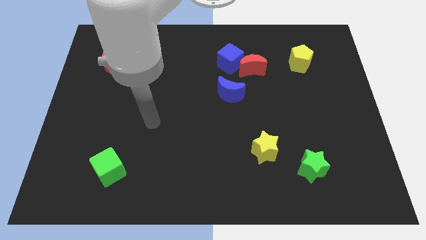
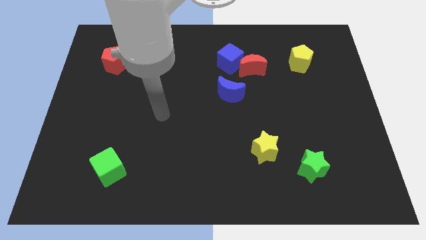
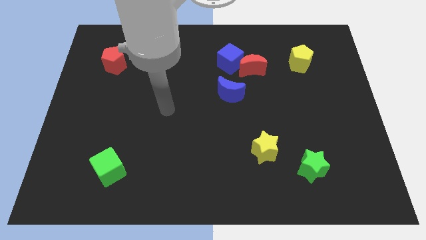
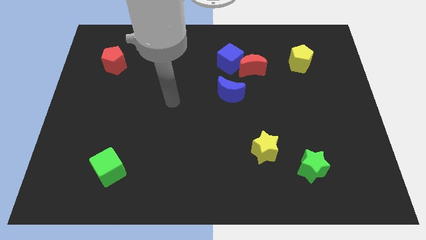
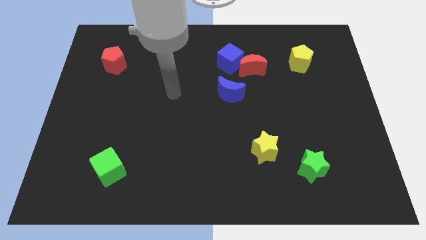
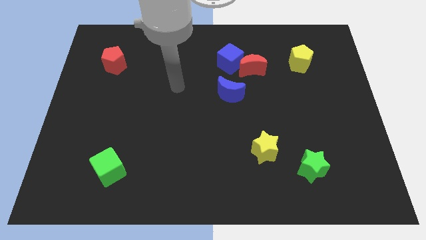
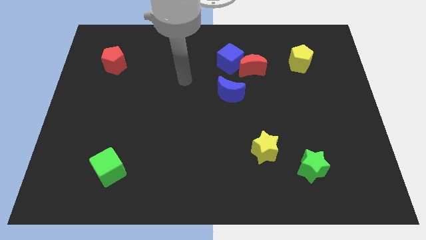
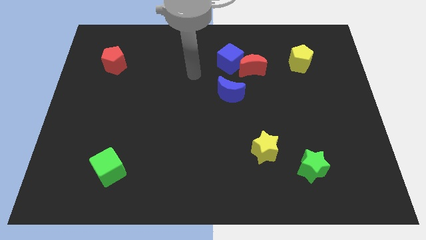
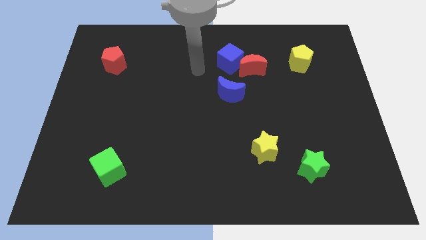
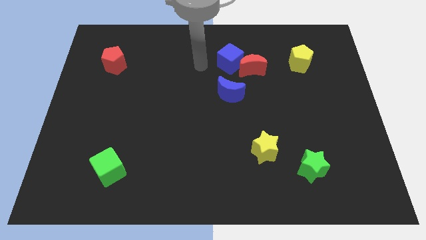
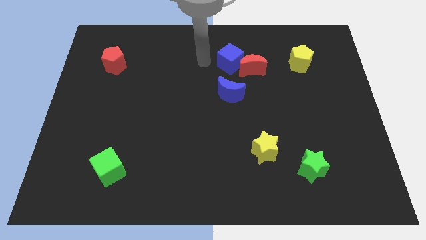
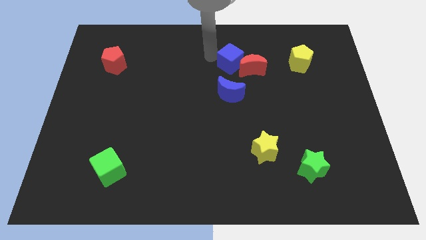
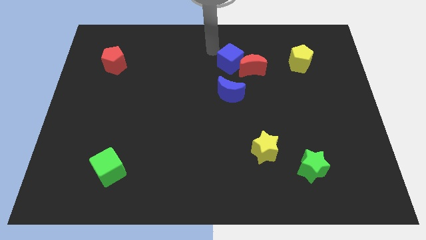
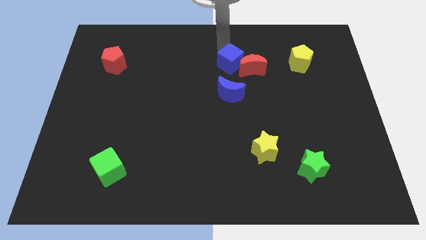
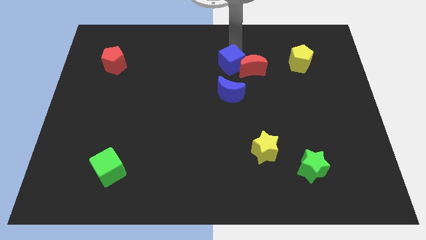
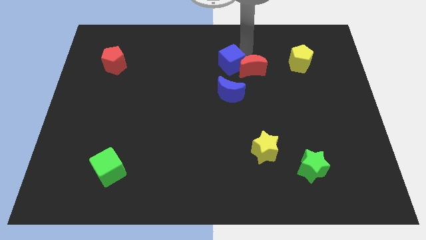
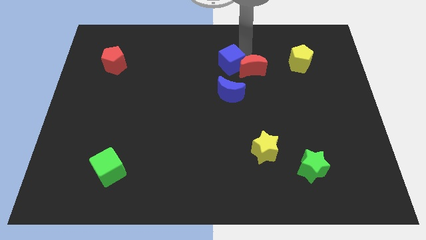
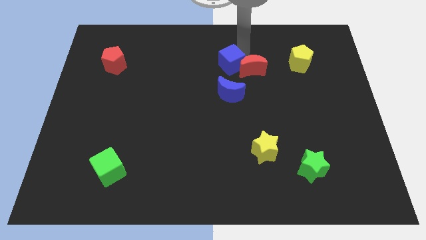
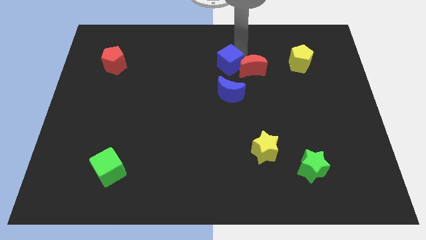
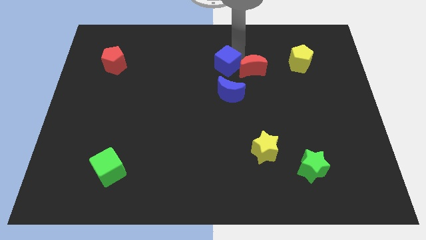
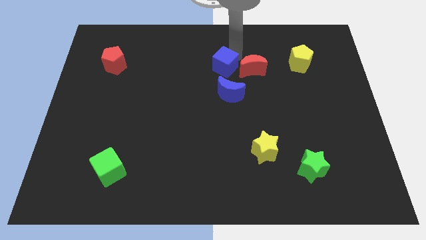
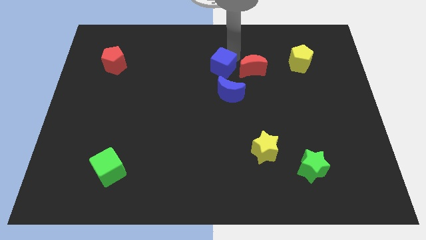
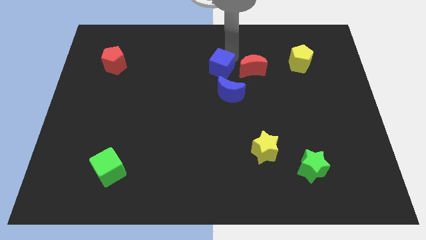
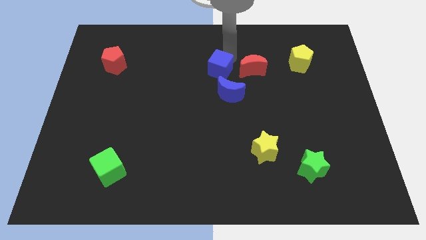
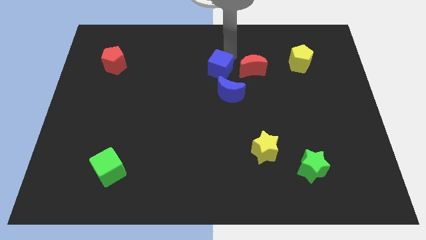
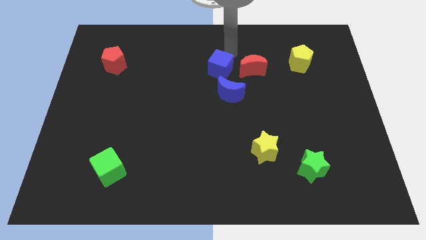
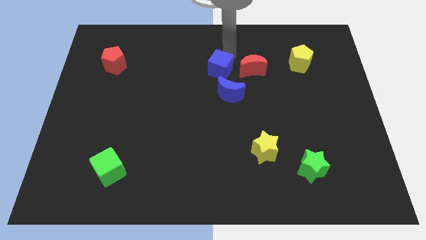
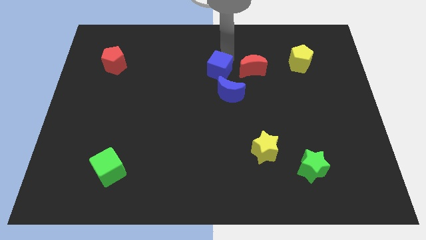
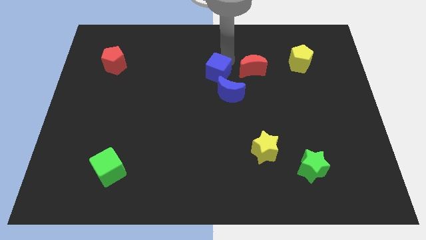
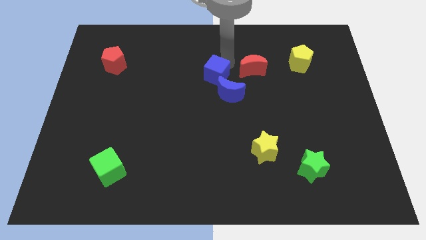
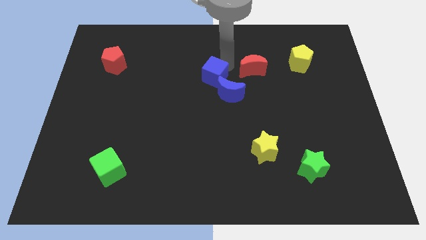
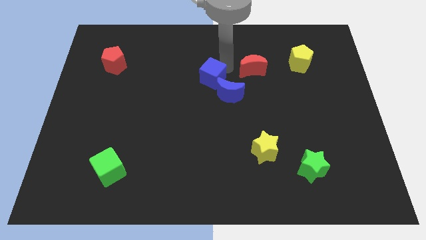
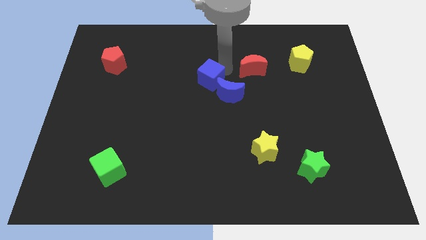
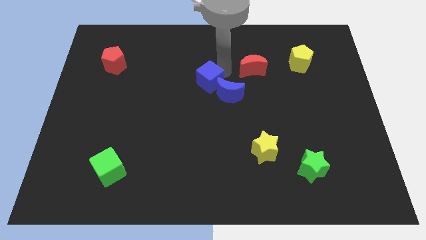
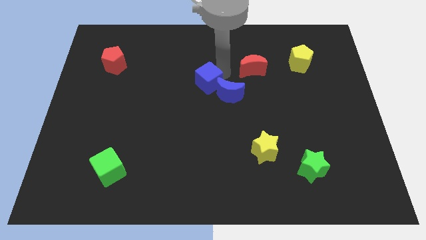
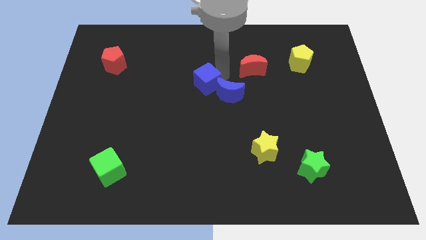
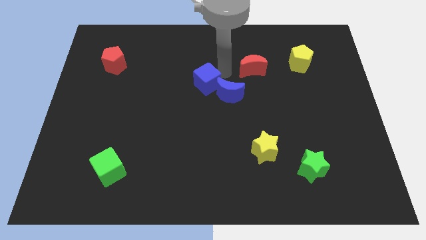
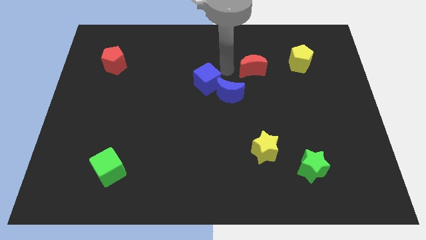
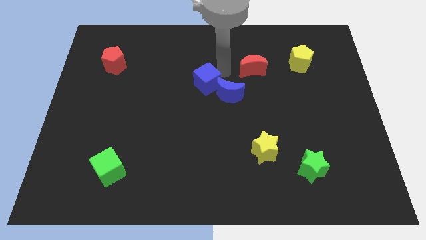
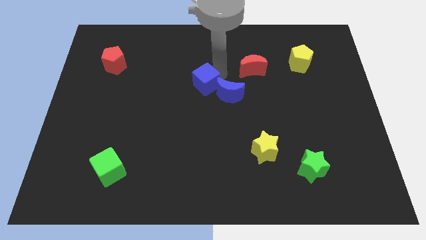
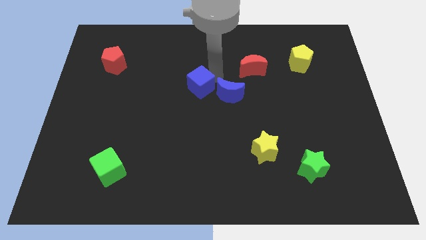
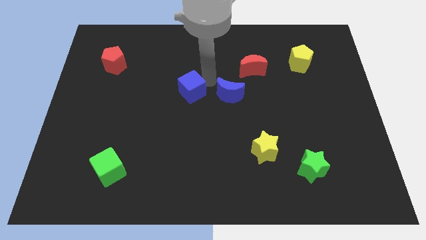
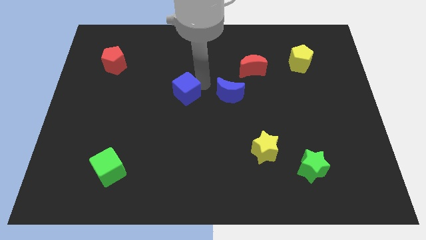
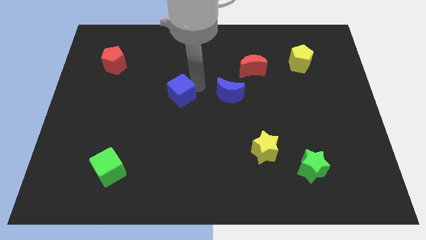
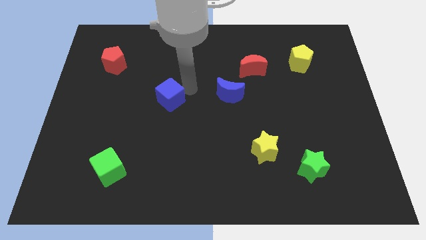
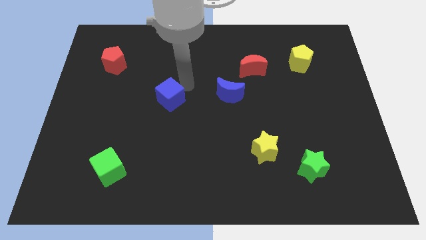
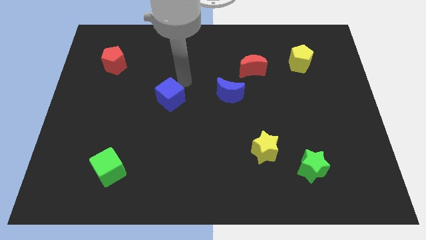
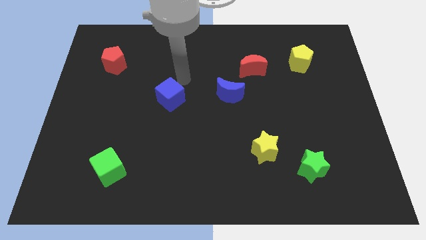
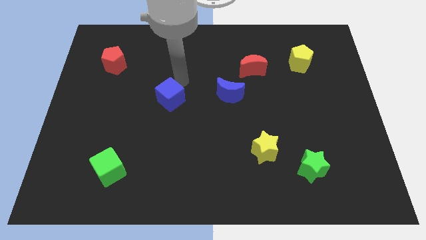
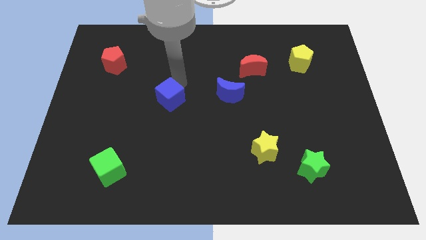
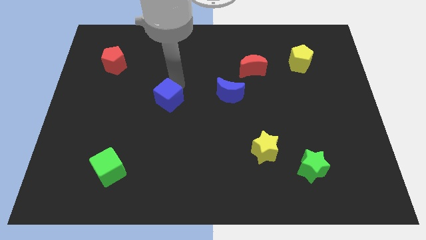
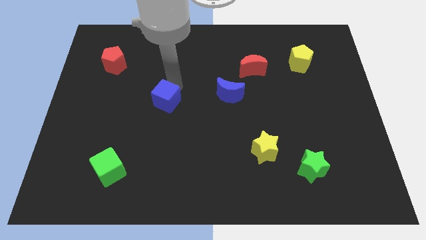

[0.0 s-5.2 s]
slide the blue cube down and then to the left

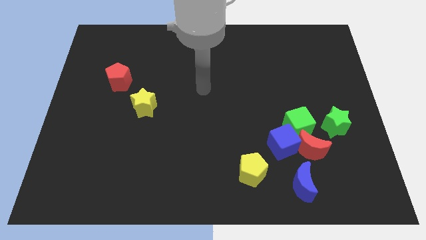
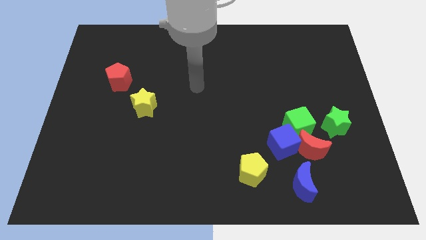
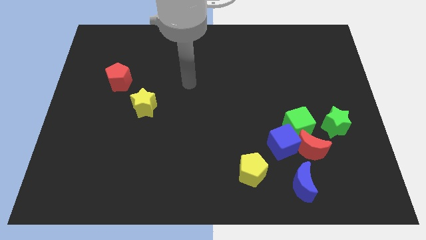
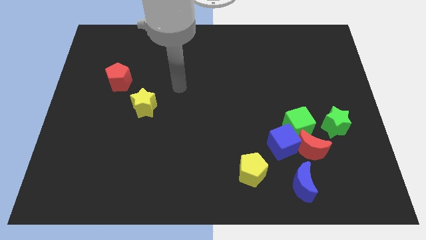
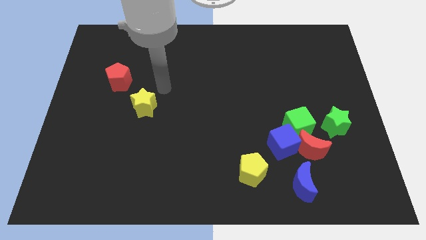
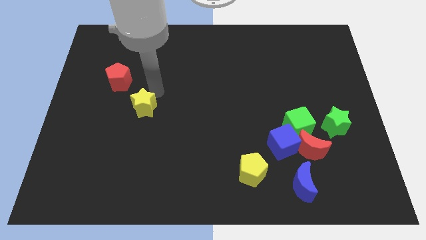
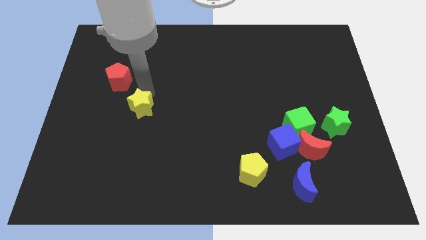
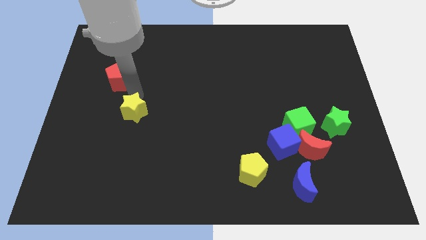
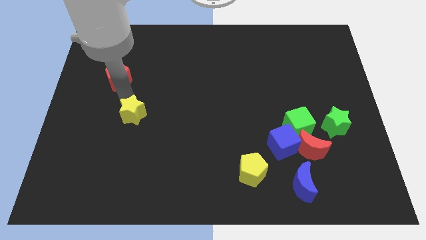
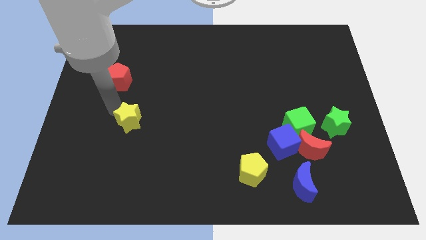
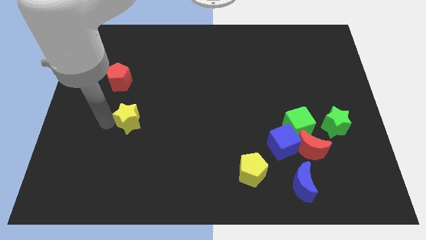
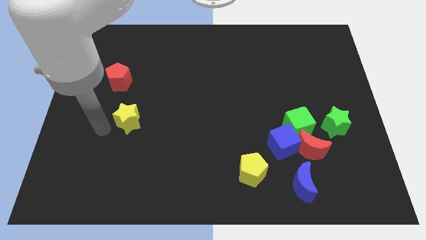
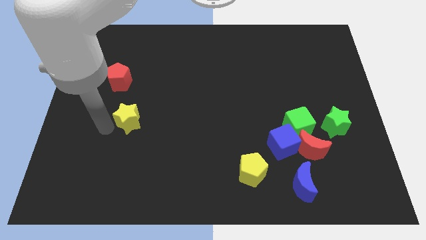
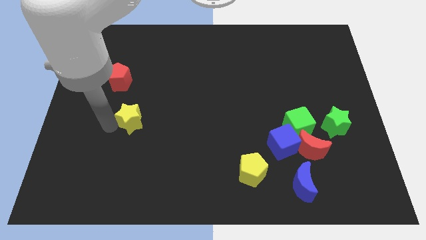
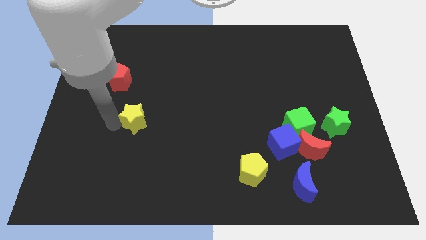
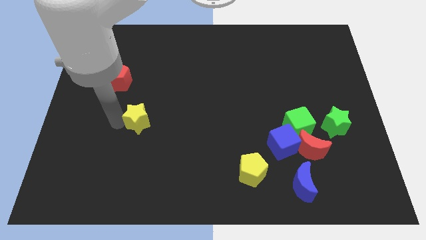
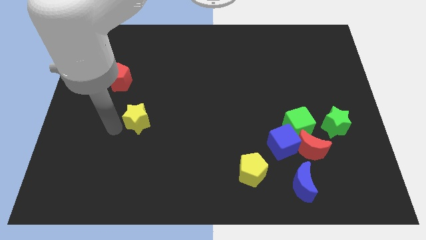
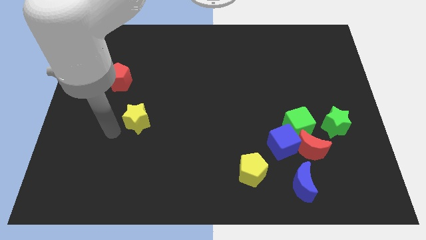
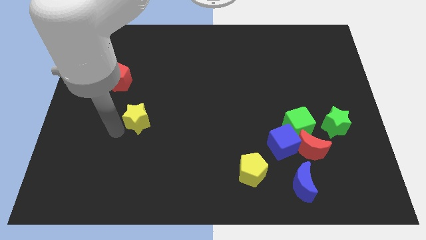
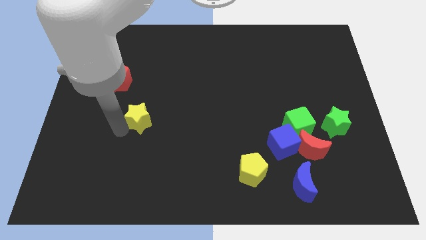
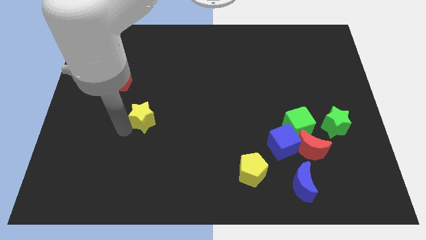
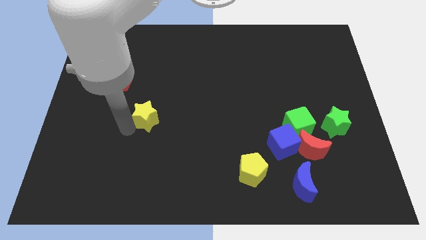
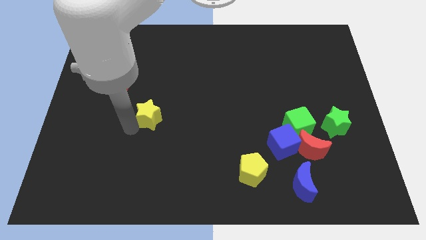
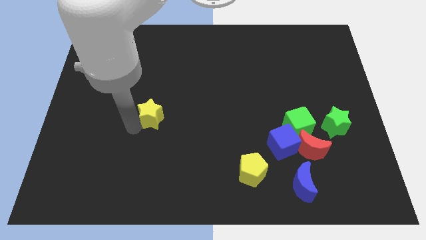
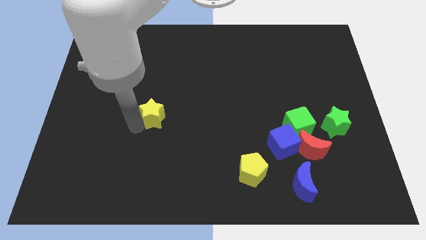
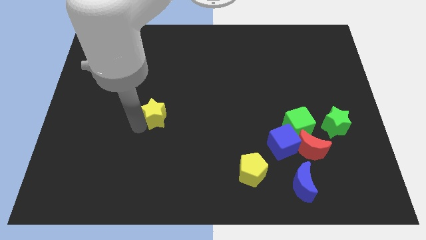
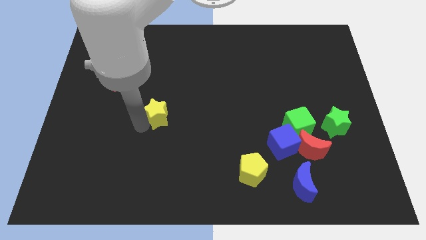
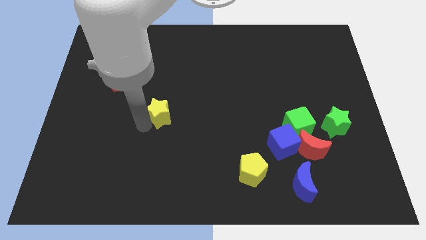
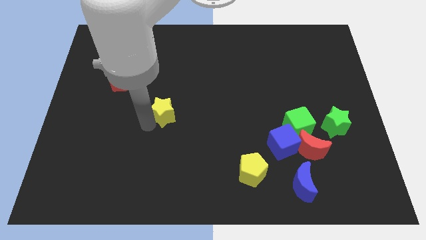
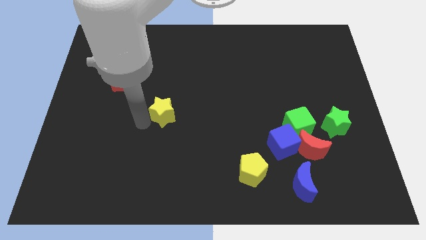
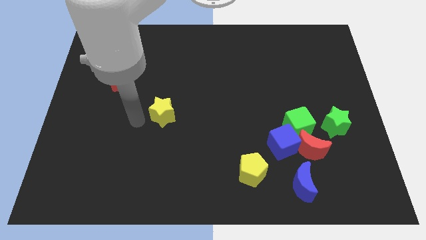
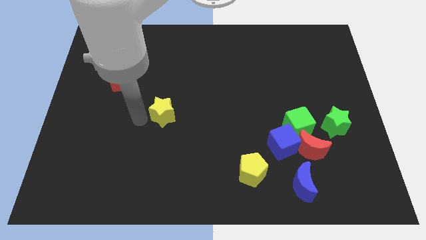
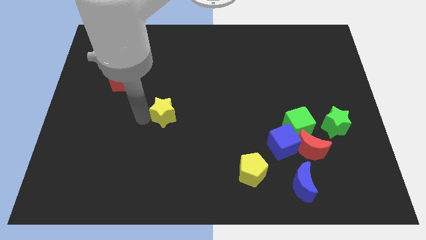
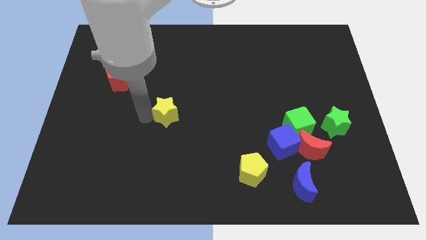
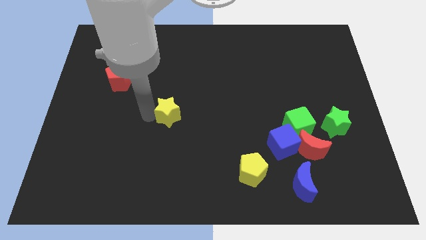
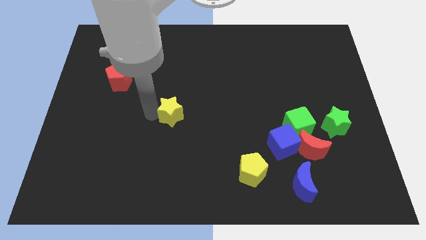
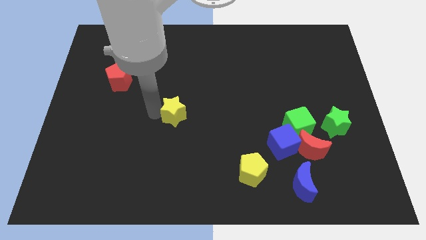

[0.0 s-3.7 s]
slightly push the yellow star to the right
